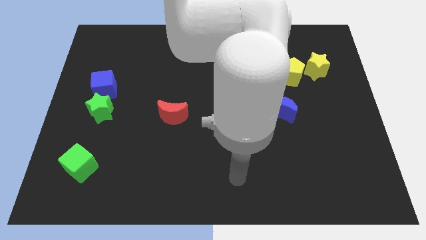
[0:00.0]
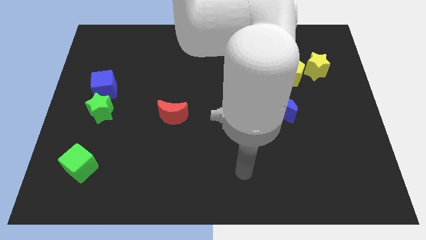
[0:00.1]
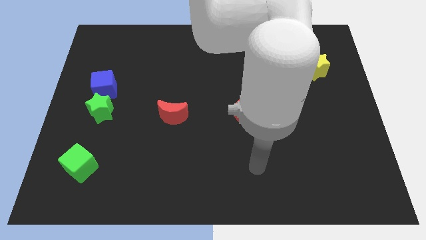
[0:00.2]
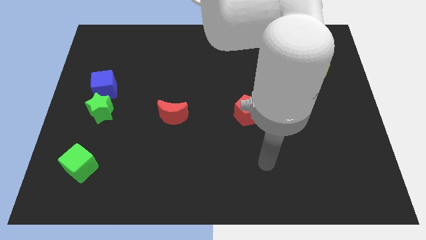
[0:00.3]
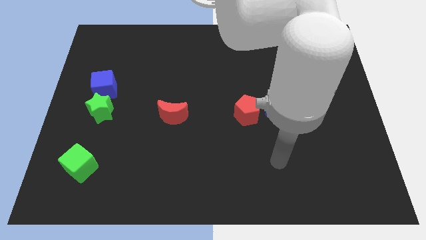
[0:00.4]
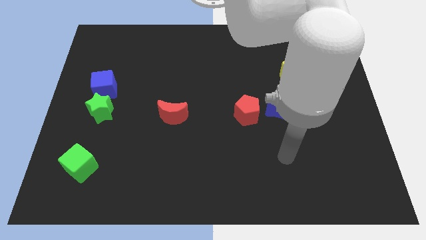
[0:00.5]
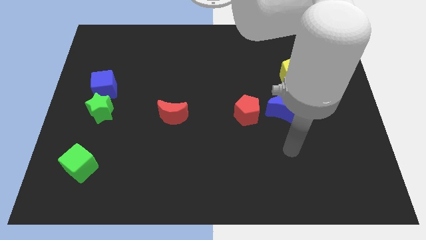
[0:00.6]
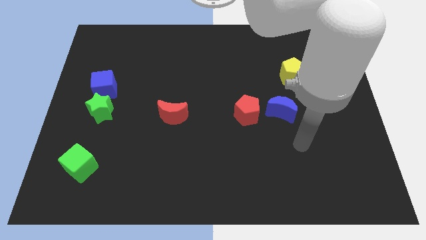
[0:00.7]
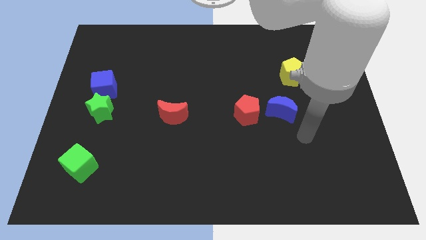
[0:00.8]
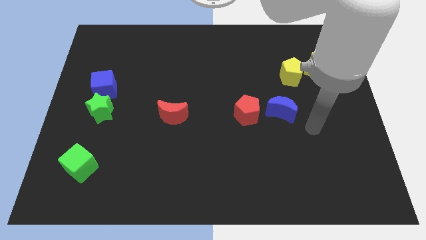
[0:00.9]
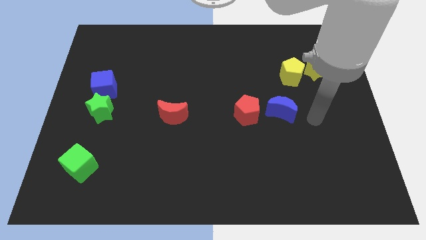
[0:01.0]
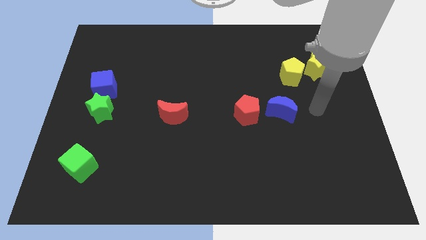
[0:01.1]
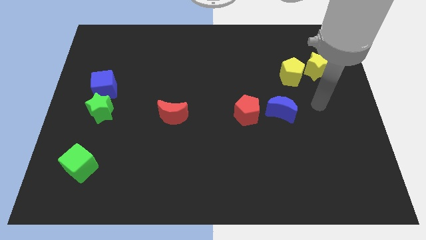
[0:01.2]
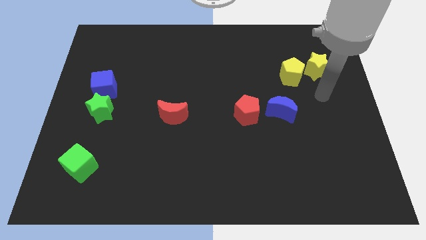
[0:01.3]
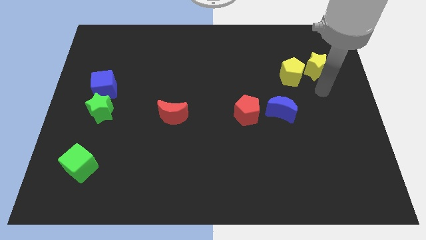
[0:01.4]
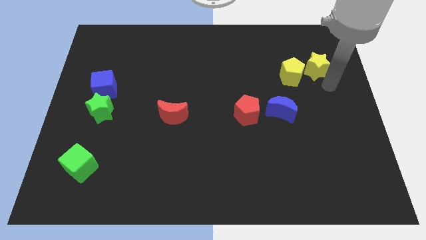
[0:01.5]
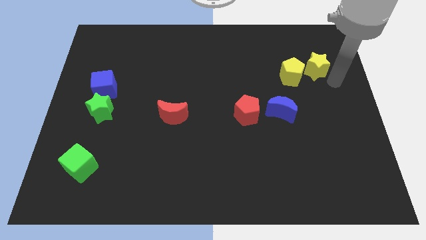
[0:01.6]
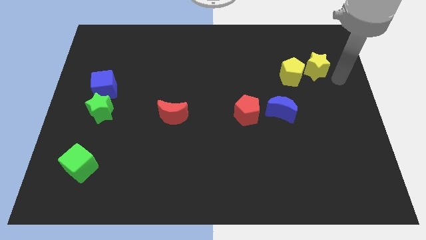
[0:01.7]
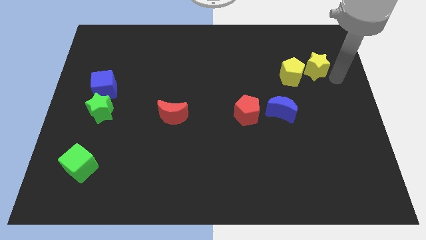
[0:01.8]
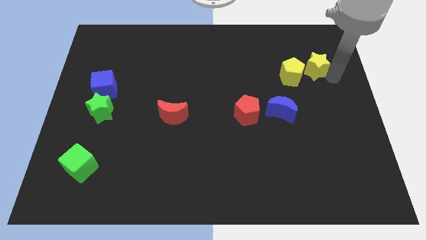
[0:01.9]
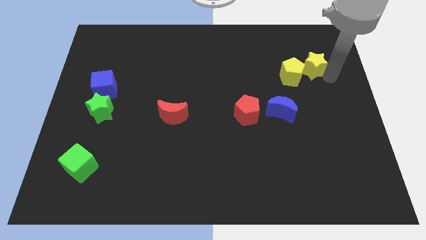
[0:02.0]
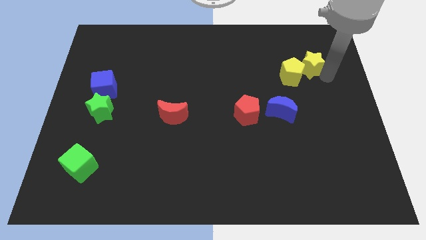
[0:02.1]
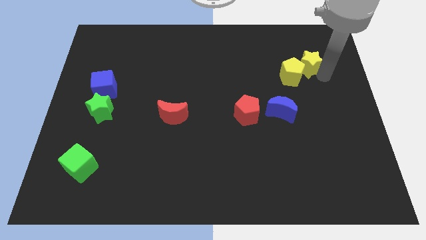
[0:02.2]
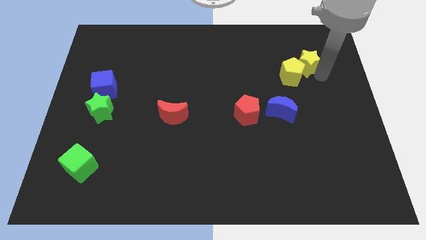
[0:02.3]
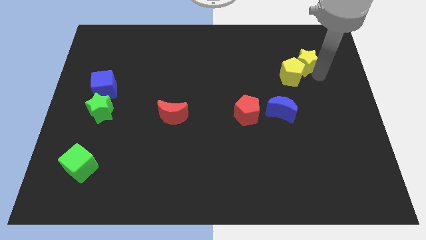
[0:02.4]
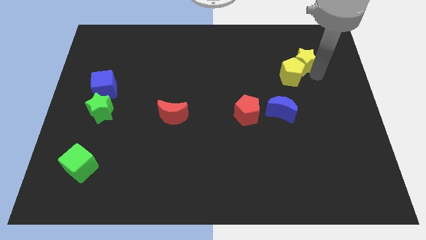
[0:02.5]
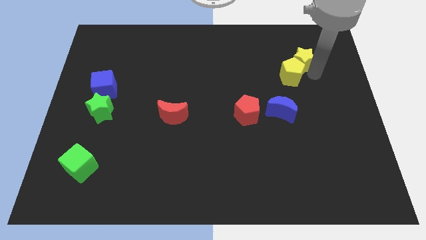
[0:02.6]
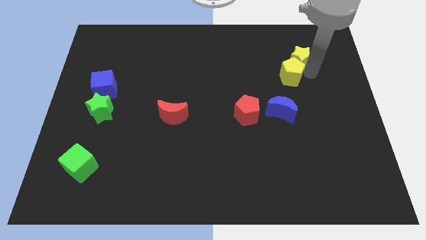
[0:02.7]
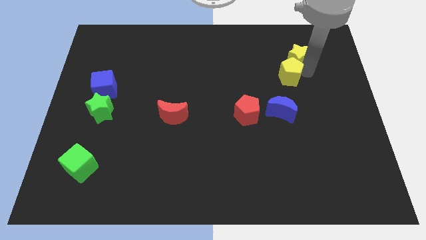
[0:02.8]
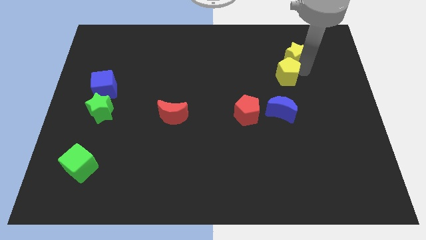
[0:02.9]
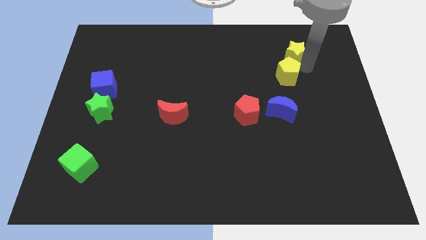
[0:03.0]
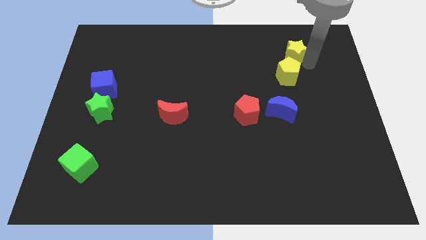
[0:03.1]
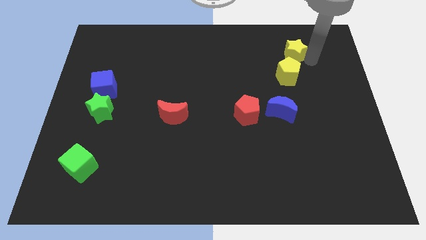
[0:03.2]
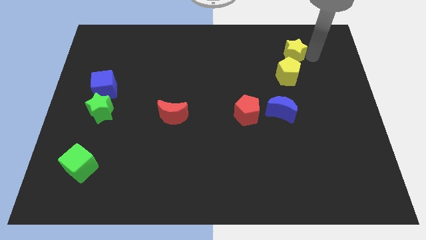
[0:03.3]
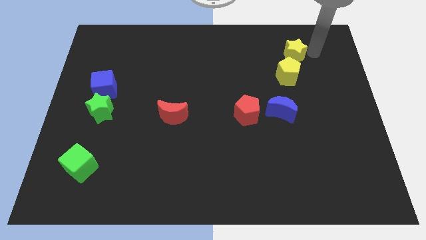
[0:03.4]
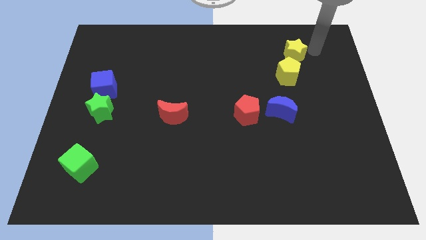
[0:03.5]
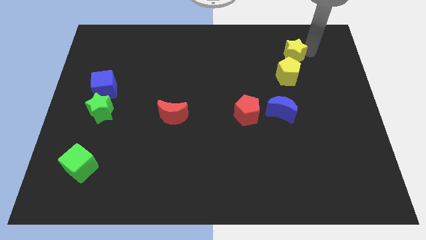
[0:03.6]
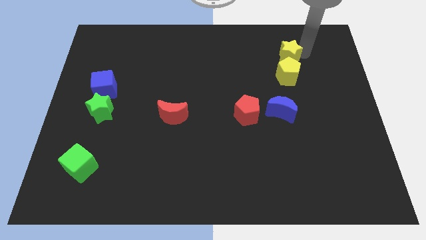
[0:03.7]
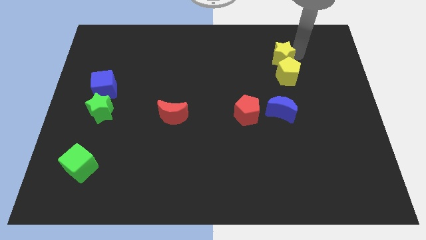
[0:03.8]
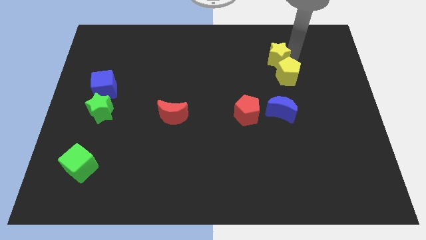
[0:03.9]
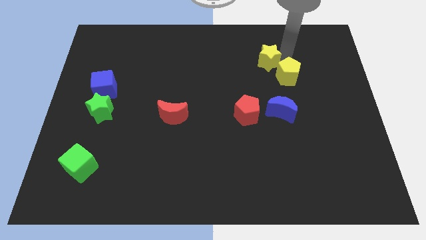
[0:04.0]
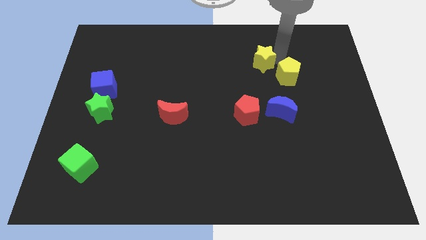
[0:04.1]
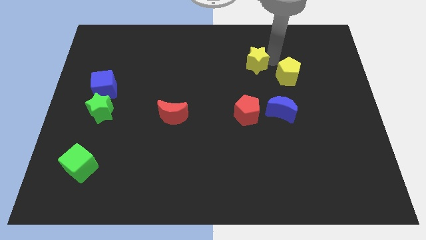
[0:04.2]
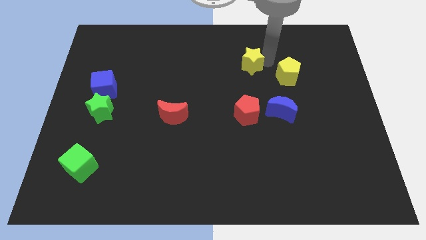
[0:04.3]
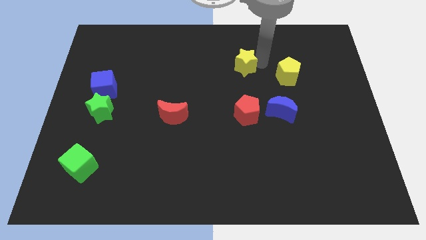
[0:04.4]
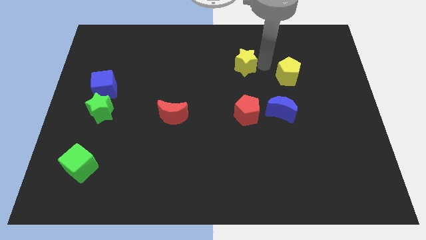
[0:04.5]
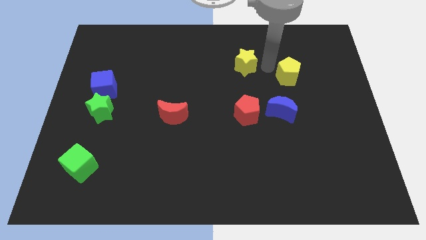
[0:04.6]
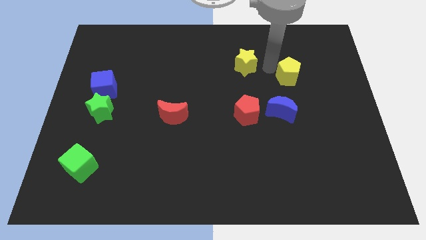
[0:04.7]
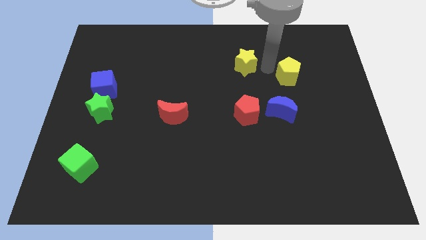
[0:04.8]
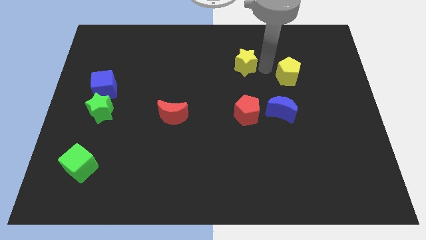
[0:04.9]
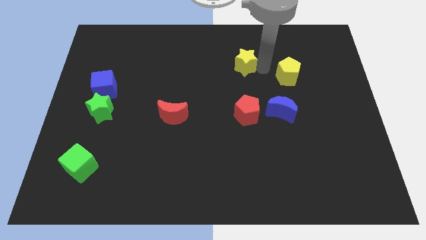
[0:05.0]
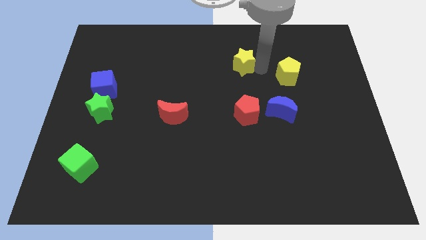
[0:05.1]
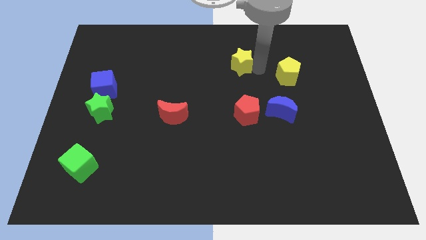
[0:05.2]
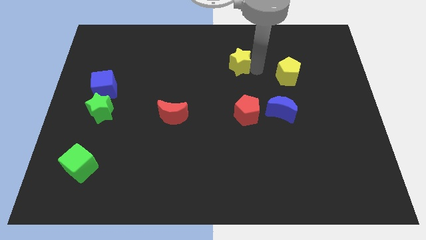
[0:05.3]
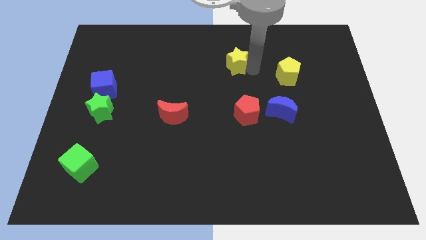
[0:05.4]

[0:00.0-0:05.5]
push the yellow star left

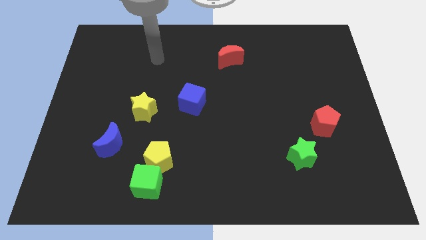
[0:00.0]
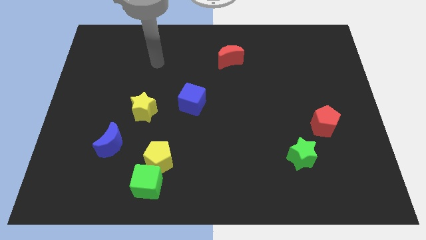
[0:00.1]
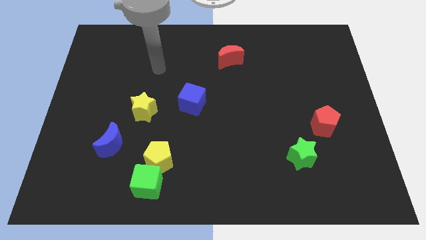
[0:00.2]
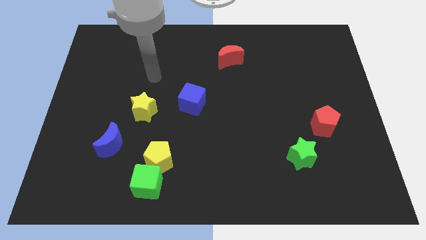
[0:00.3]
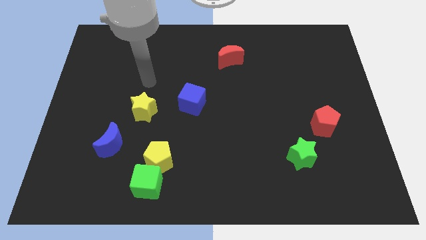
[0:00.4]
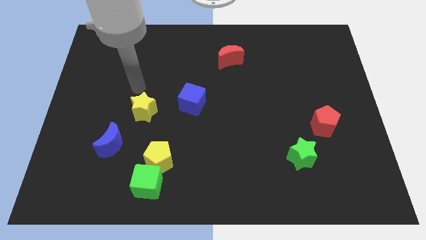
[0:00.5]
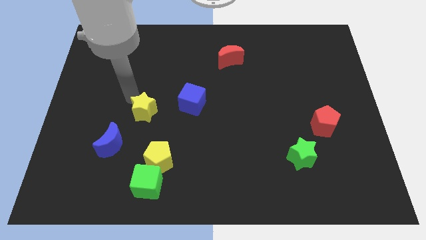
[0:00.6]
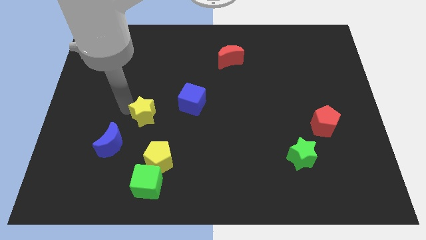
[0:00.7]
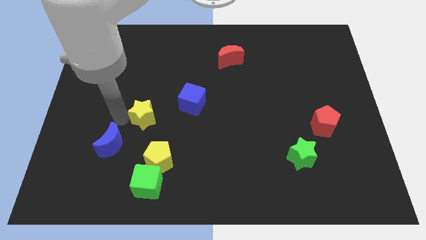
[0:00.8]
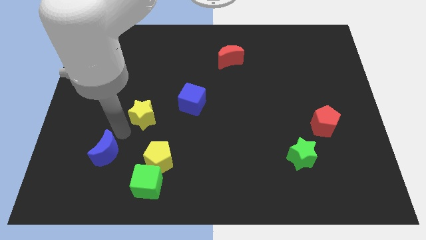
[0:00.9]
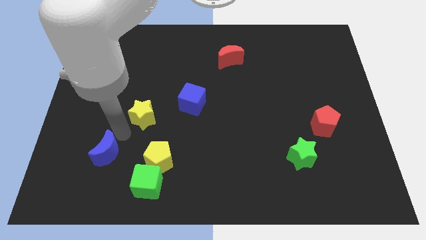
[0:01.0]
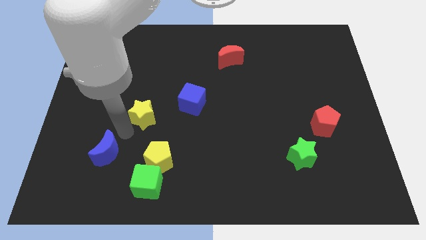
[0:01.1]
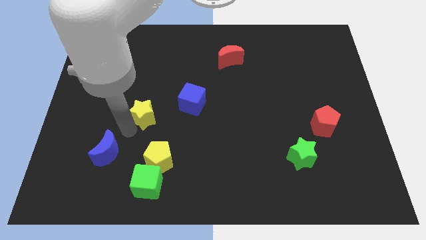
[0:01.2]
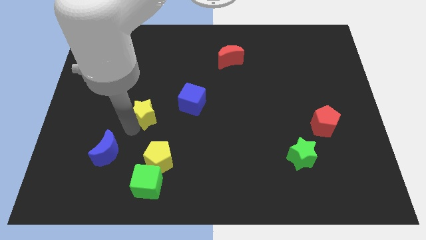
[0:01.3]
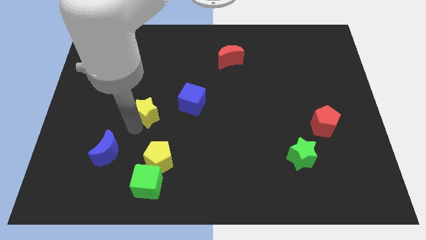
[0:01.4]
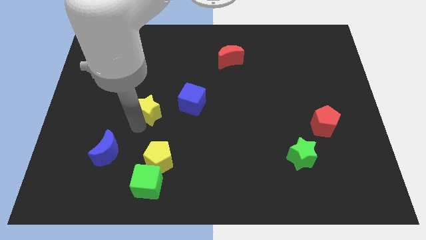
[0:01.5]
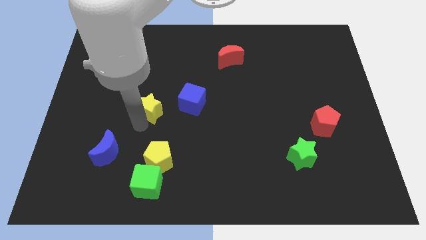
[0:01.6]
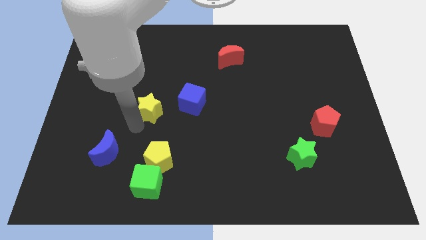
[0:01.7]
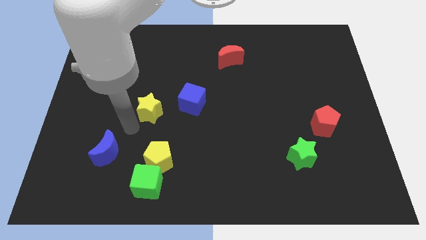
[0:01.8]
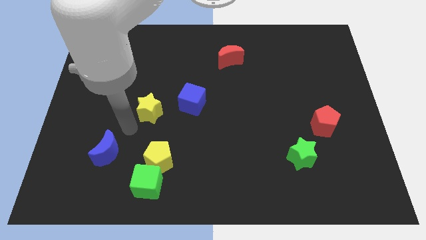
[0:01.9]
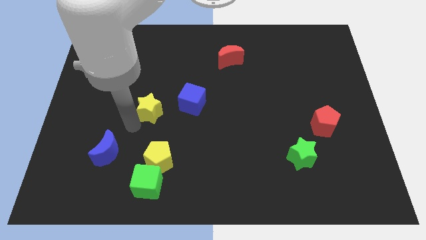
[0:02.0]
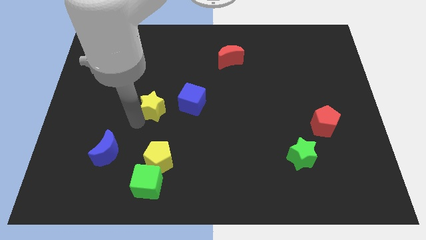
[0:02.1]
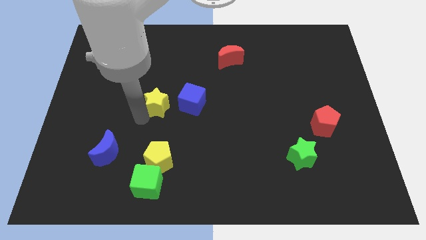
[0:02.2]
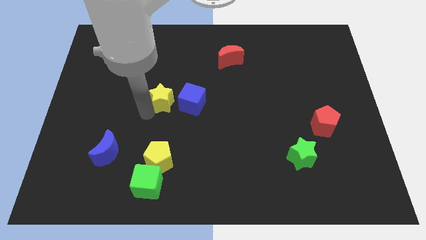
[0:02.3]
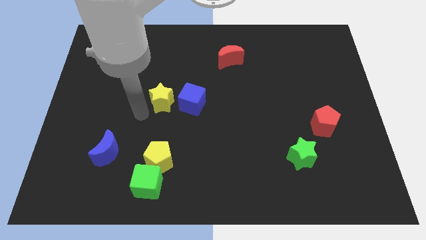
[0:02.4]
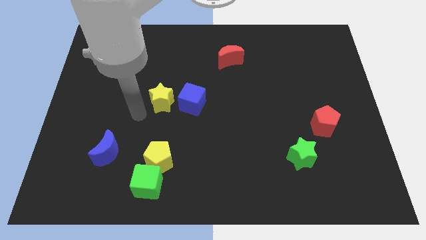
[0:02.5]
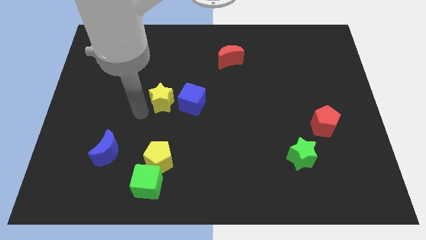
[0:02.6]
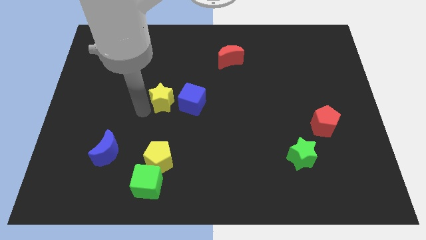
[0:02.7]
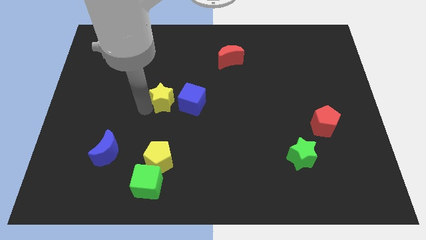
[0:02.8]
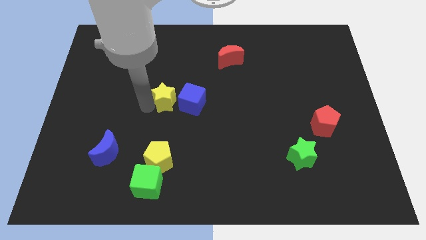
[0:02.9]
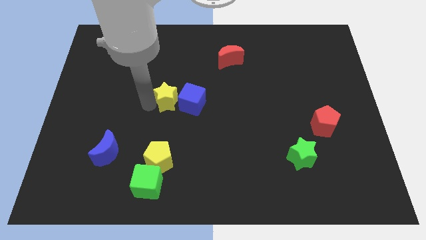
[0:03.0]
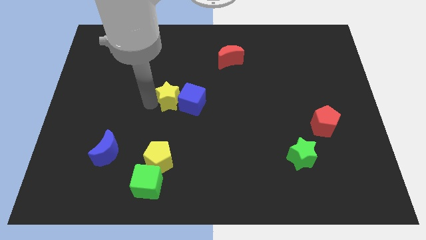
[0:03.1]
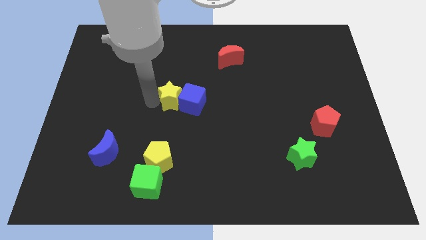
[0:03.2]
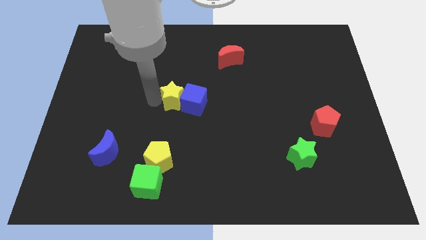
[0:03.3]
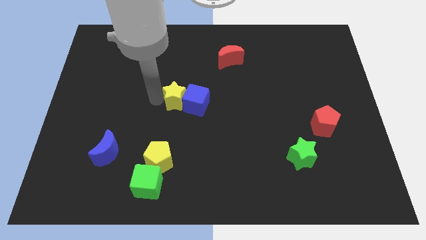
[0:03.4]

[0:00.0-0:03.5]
slightly slide the yellow star diagonally upwards and to the right
